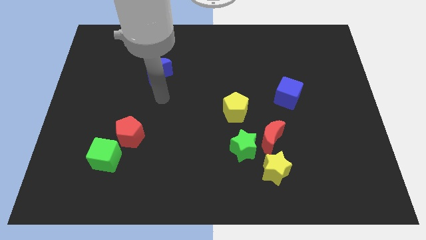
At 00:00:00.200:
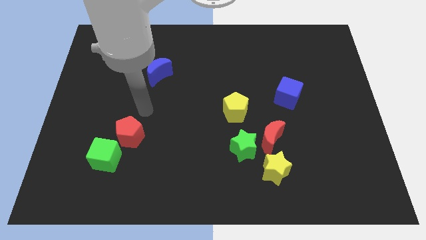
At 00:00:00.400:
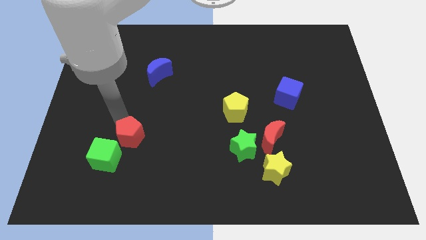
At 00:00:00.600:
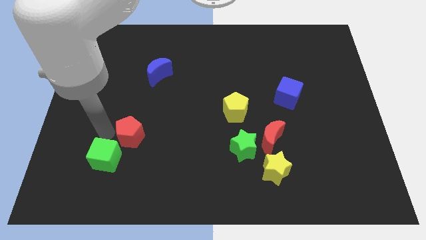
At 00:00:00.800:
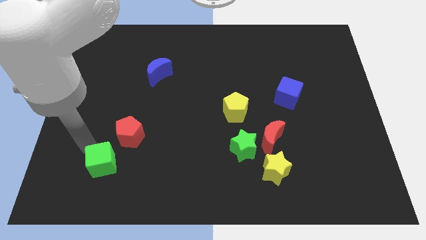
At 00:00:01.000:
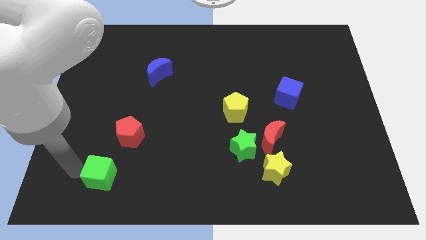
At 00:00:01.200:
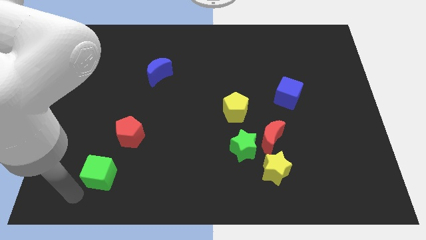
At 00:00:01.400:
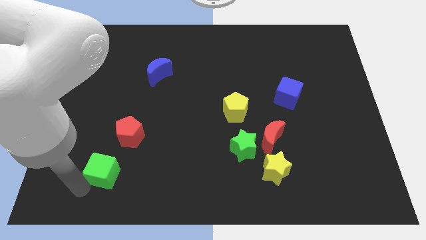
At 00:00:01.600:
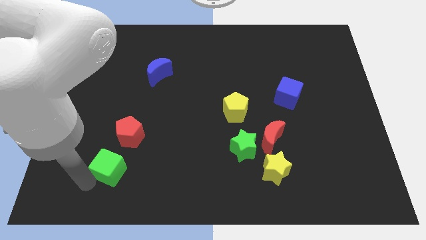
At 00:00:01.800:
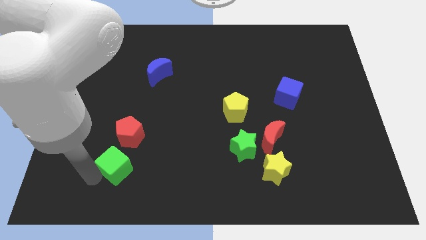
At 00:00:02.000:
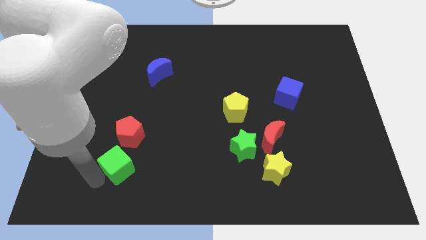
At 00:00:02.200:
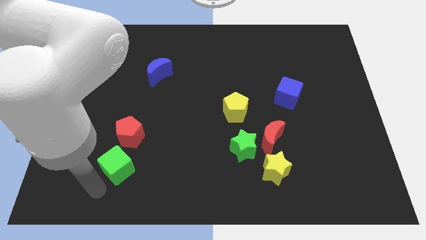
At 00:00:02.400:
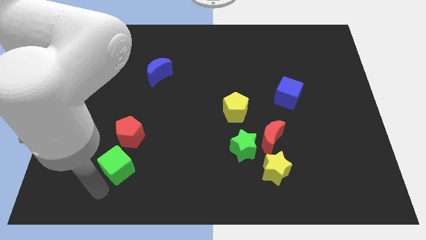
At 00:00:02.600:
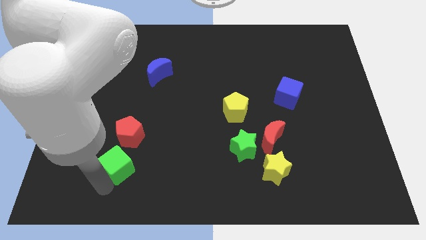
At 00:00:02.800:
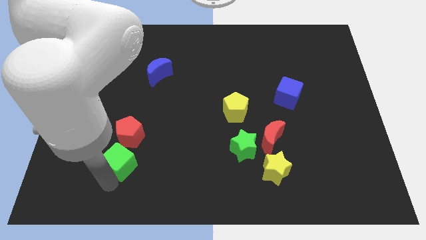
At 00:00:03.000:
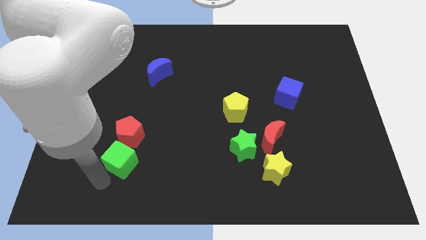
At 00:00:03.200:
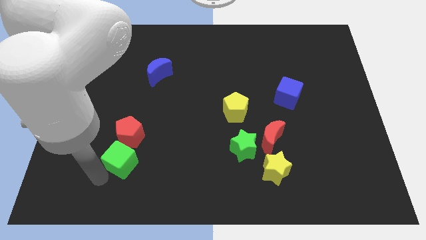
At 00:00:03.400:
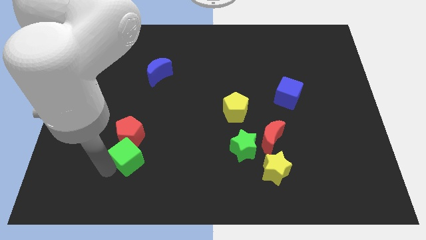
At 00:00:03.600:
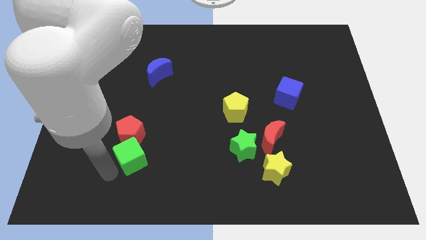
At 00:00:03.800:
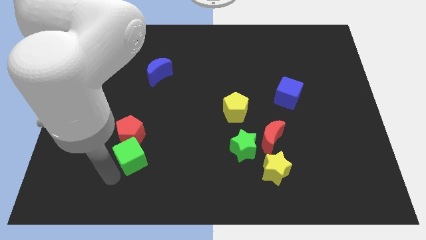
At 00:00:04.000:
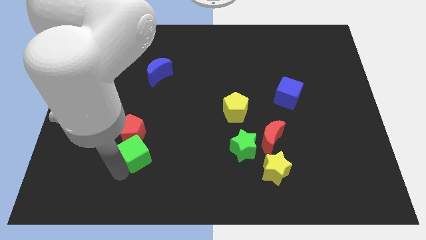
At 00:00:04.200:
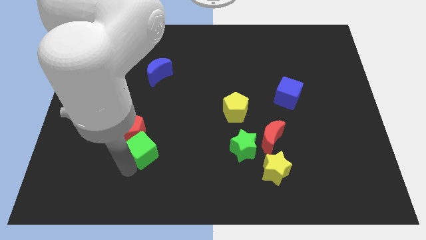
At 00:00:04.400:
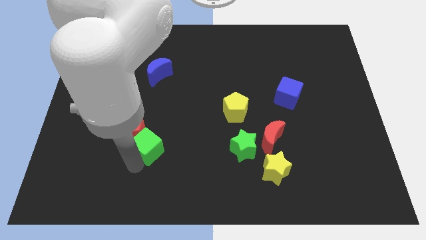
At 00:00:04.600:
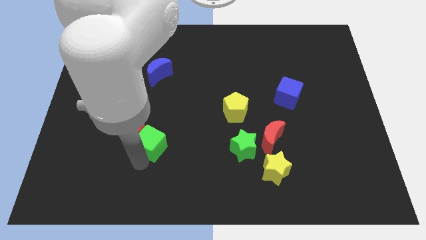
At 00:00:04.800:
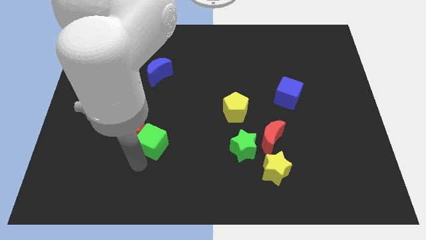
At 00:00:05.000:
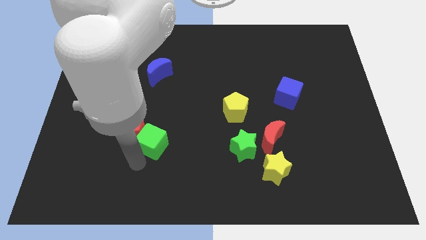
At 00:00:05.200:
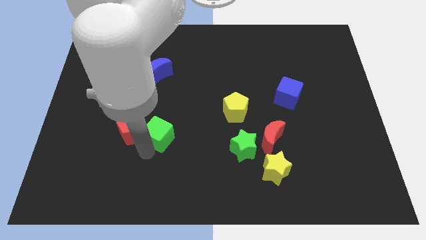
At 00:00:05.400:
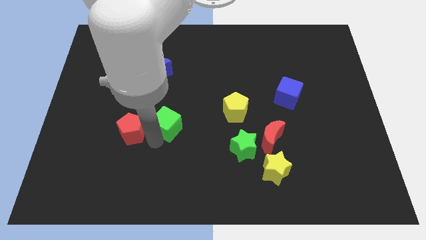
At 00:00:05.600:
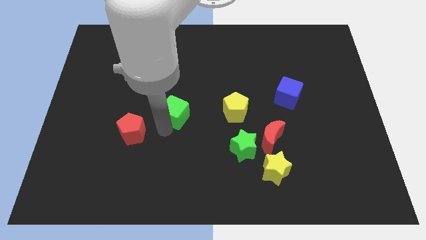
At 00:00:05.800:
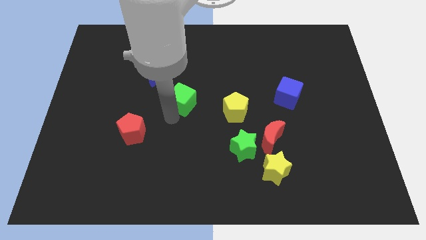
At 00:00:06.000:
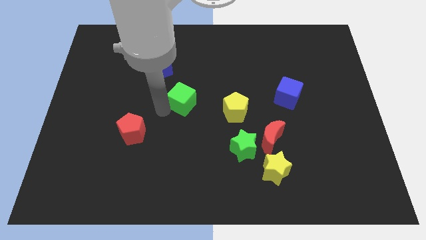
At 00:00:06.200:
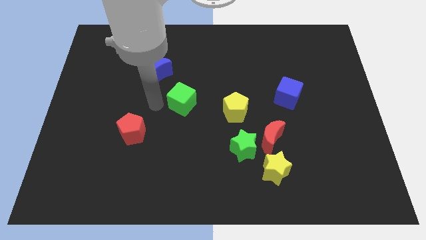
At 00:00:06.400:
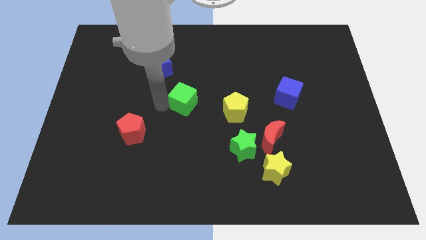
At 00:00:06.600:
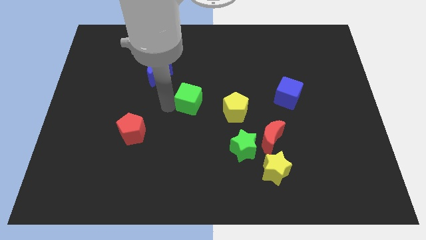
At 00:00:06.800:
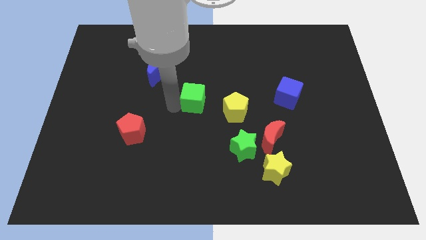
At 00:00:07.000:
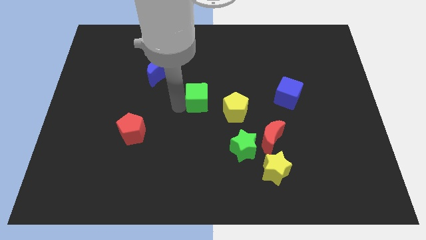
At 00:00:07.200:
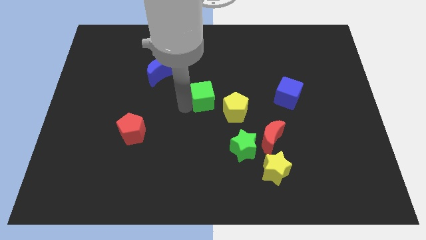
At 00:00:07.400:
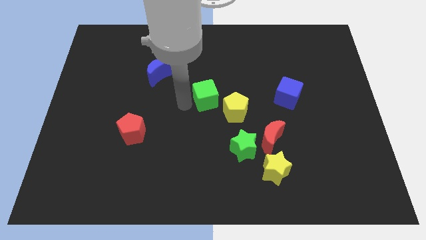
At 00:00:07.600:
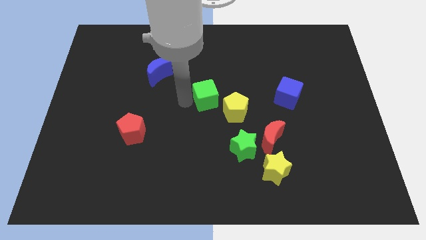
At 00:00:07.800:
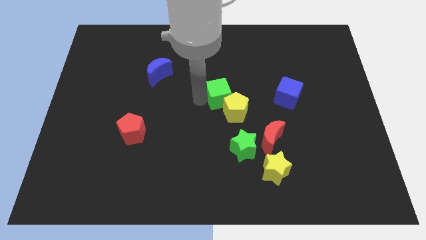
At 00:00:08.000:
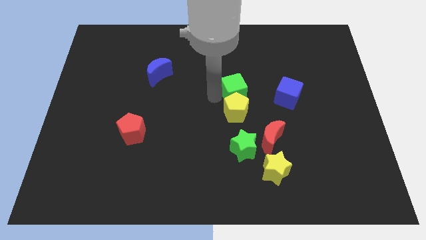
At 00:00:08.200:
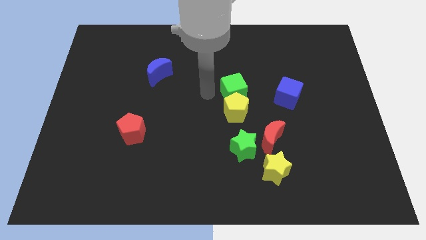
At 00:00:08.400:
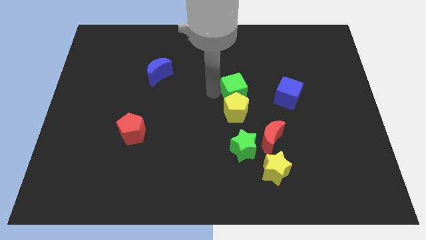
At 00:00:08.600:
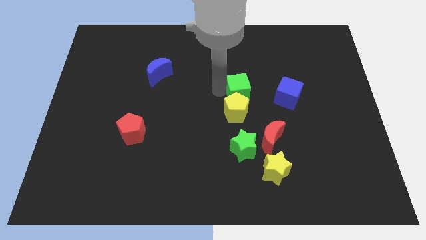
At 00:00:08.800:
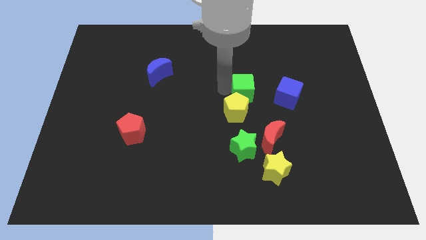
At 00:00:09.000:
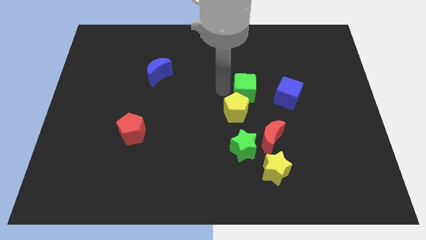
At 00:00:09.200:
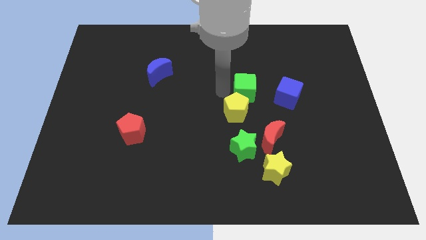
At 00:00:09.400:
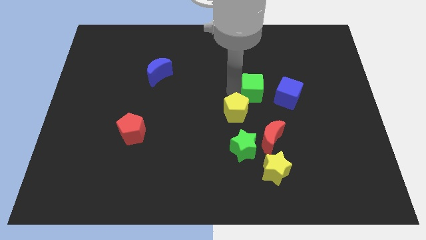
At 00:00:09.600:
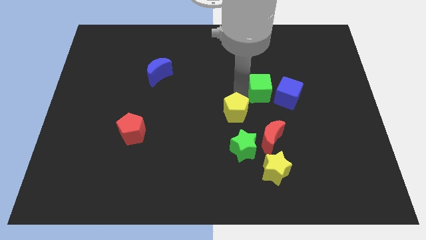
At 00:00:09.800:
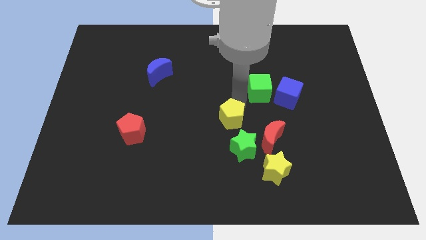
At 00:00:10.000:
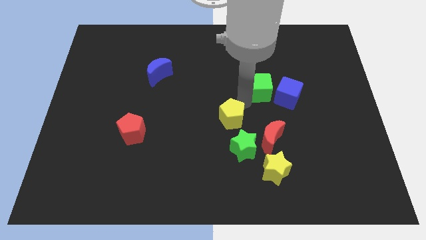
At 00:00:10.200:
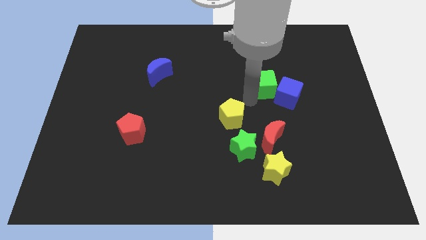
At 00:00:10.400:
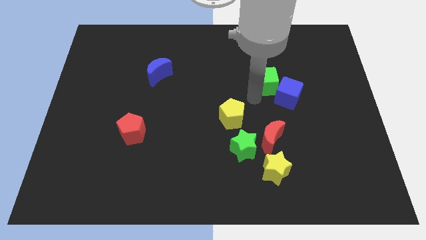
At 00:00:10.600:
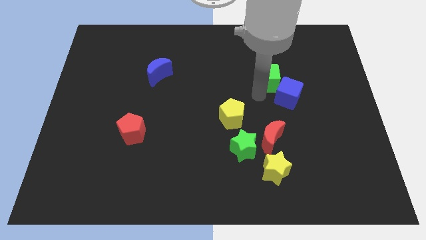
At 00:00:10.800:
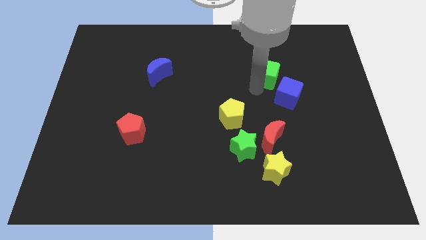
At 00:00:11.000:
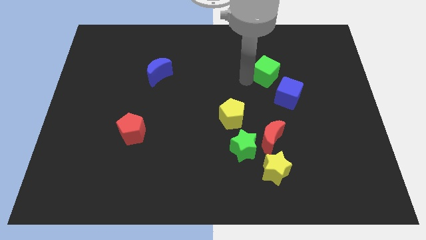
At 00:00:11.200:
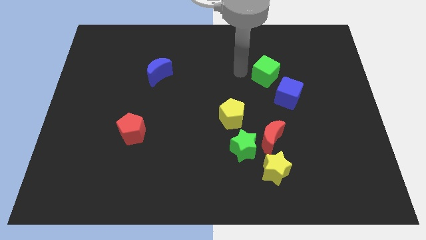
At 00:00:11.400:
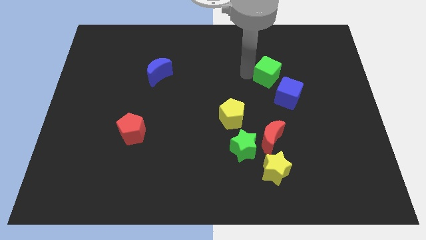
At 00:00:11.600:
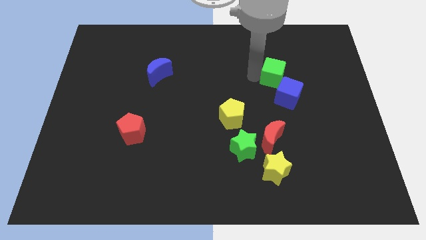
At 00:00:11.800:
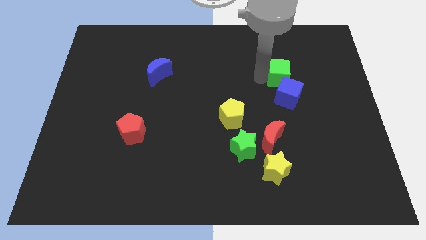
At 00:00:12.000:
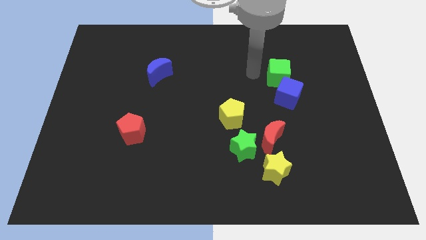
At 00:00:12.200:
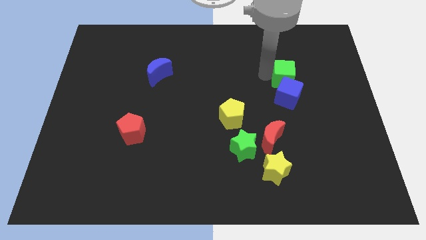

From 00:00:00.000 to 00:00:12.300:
push the green cube to the top right of the blue cube

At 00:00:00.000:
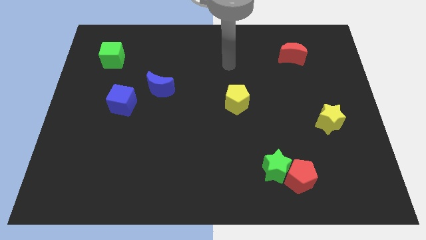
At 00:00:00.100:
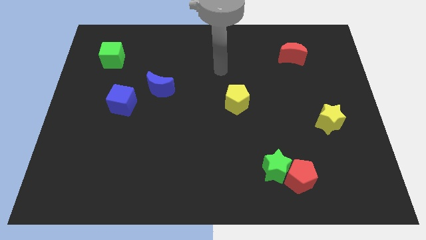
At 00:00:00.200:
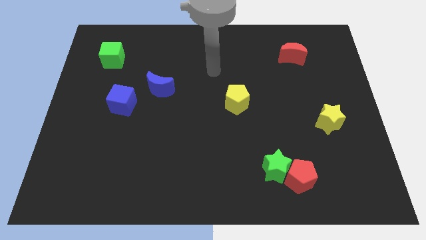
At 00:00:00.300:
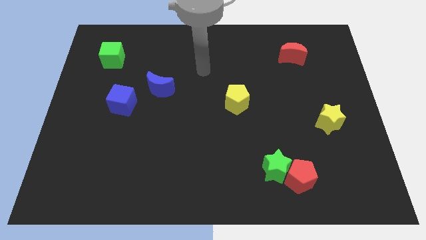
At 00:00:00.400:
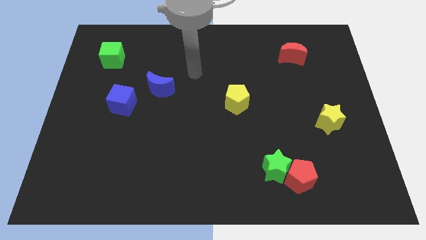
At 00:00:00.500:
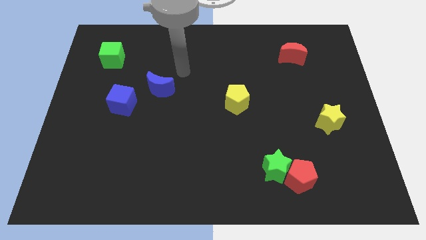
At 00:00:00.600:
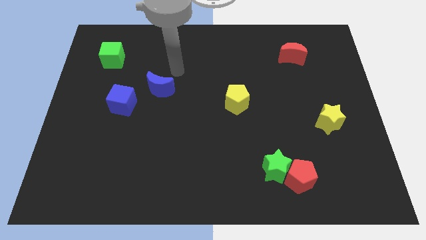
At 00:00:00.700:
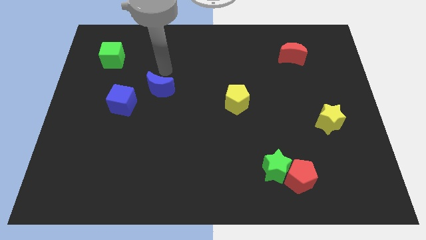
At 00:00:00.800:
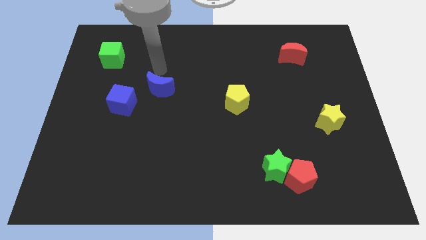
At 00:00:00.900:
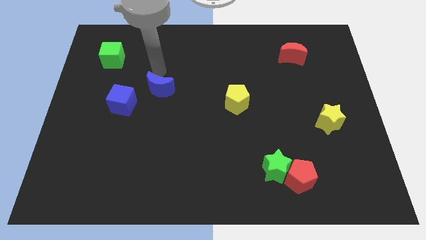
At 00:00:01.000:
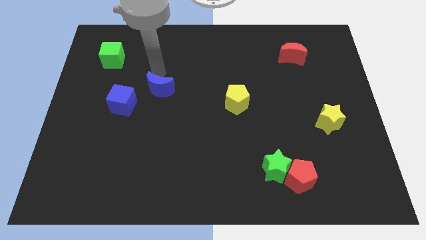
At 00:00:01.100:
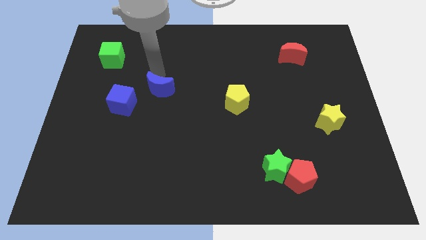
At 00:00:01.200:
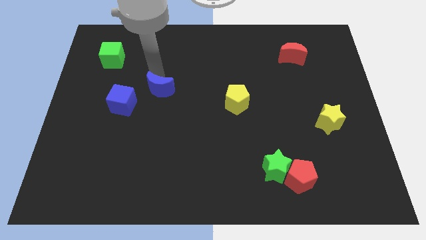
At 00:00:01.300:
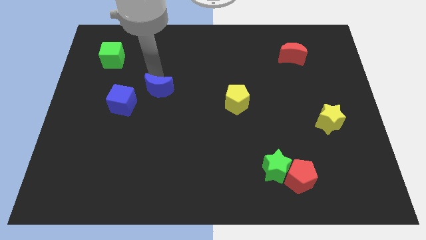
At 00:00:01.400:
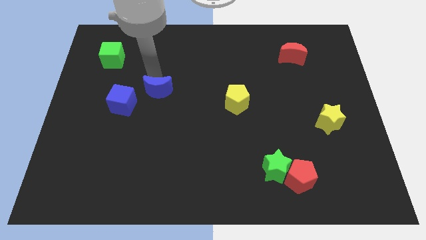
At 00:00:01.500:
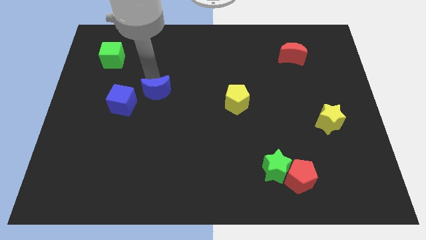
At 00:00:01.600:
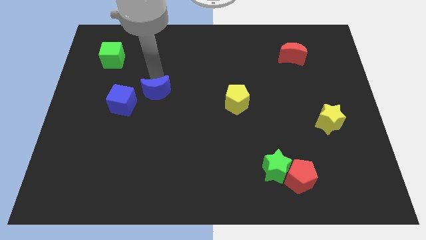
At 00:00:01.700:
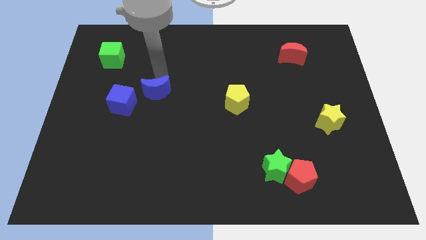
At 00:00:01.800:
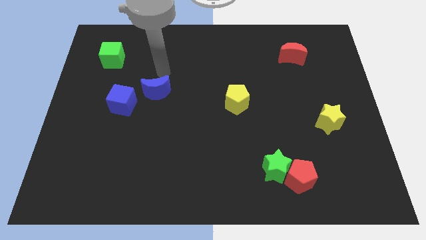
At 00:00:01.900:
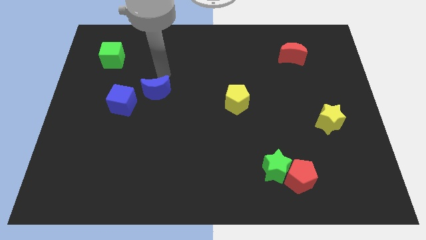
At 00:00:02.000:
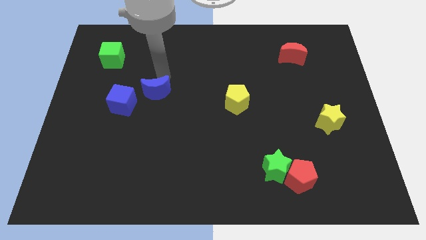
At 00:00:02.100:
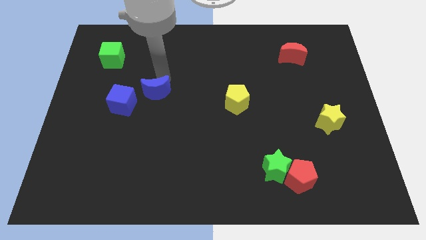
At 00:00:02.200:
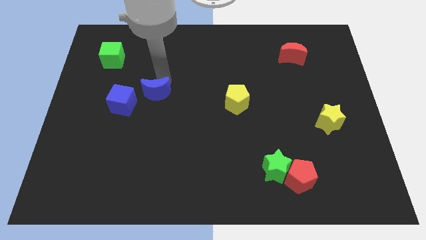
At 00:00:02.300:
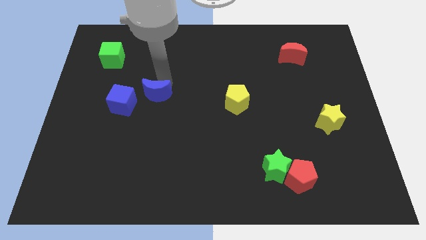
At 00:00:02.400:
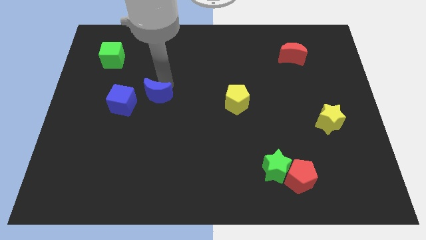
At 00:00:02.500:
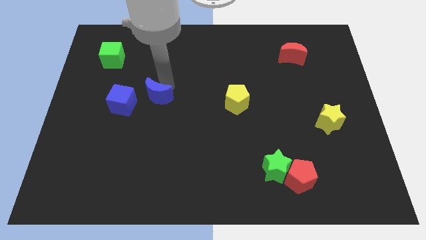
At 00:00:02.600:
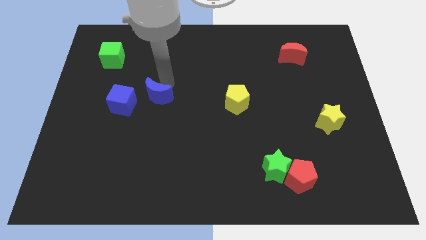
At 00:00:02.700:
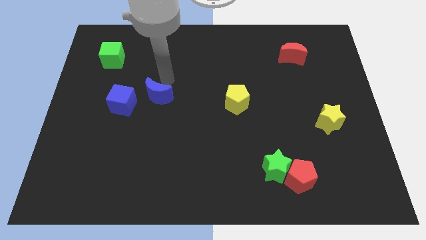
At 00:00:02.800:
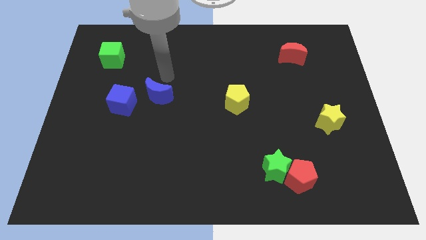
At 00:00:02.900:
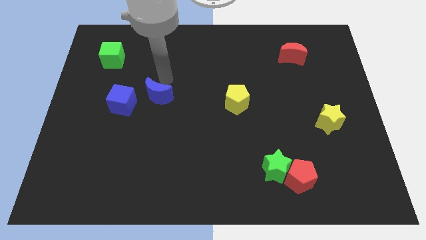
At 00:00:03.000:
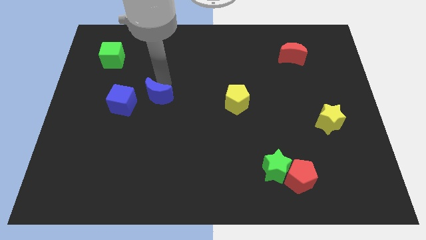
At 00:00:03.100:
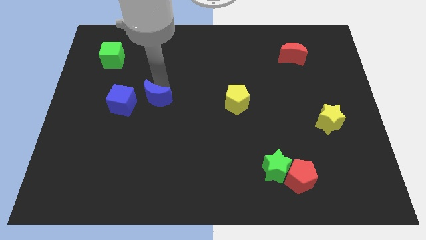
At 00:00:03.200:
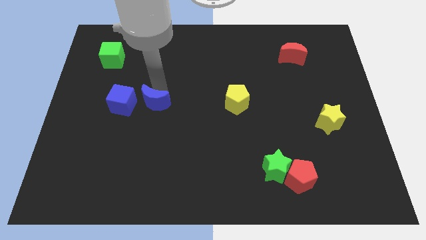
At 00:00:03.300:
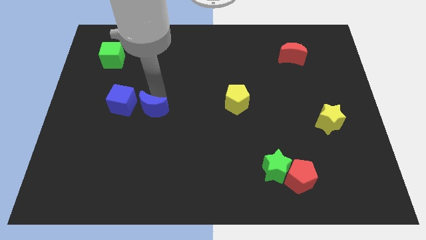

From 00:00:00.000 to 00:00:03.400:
slide the blue moon diagonally down and to the right of the blue cube
